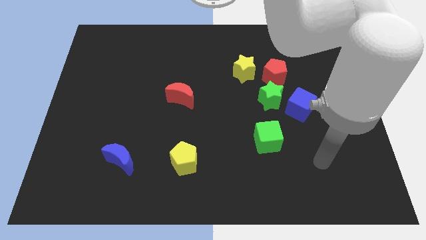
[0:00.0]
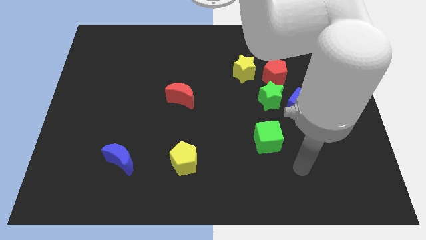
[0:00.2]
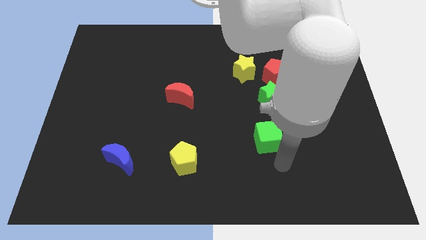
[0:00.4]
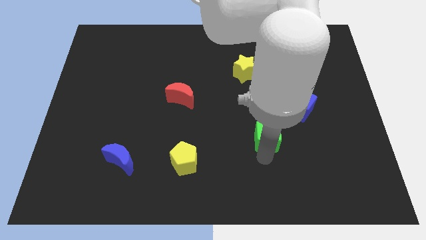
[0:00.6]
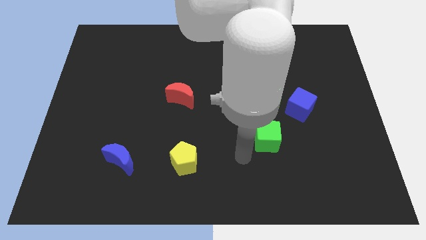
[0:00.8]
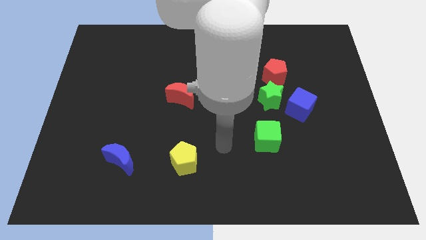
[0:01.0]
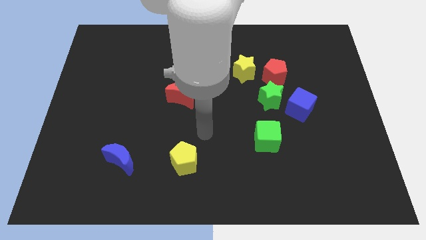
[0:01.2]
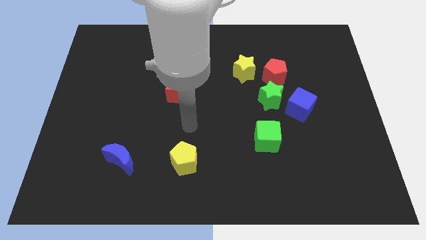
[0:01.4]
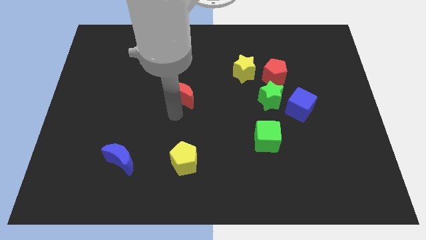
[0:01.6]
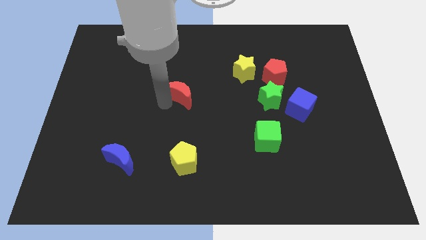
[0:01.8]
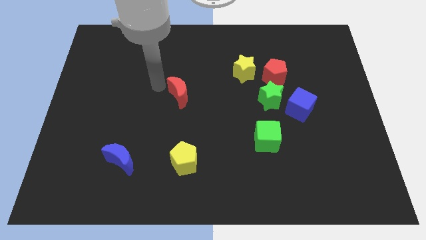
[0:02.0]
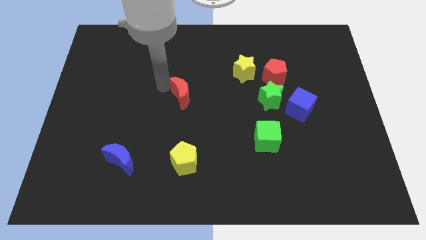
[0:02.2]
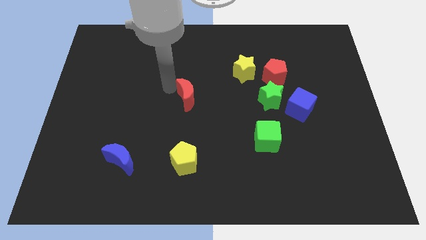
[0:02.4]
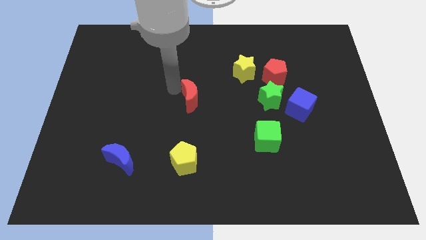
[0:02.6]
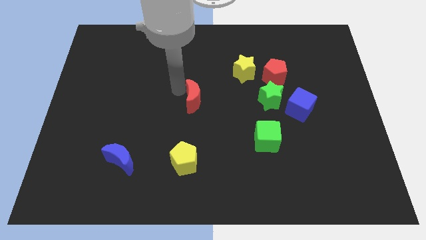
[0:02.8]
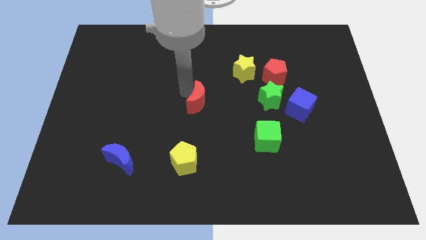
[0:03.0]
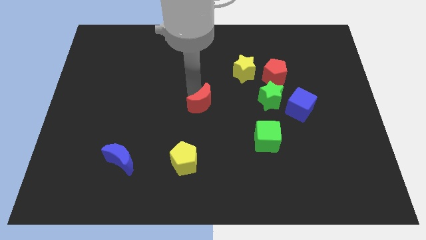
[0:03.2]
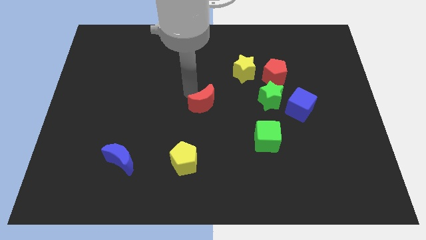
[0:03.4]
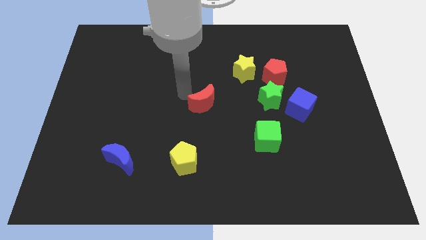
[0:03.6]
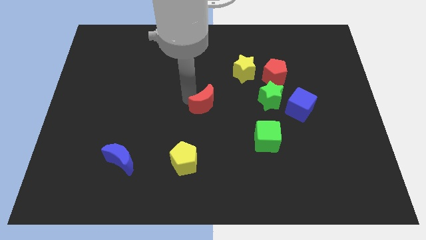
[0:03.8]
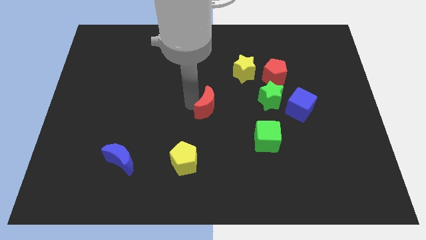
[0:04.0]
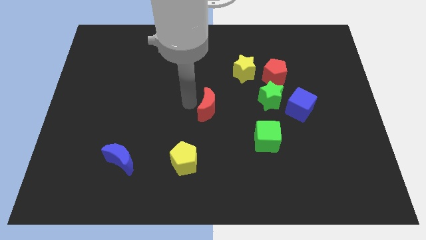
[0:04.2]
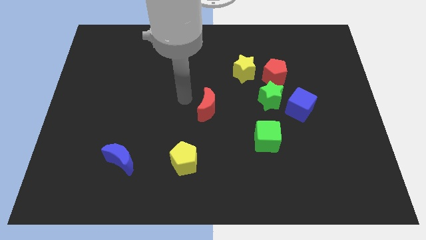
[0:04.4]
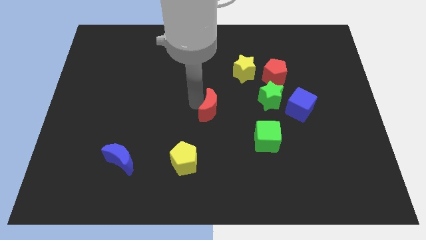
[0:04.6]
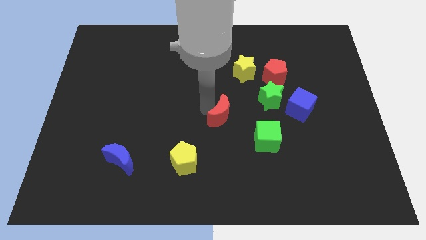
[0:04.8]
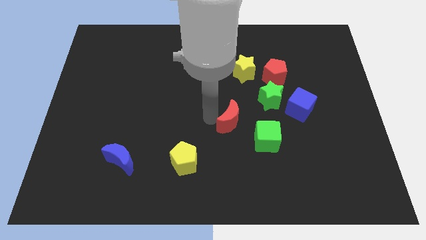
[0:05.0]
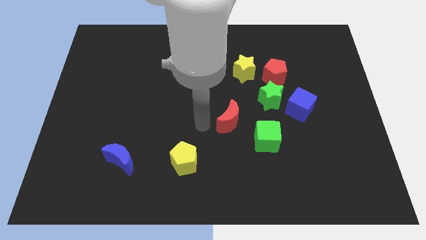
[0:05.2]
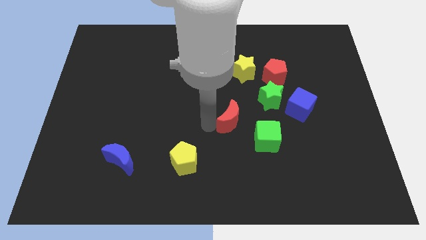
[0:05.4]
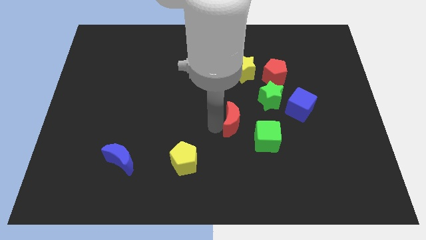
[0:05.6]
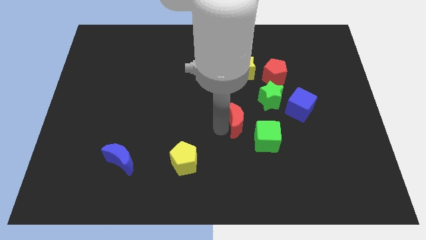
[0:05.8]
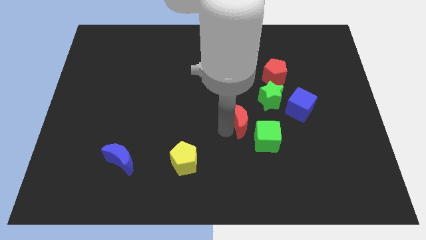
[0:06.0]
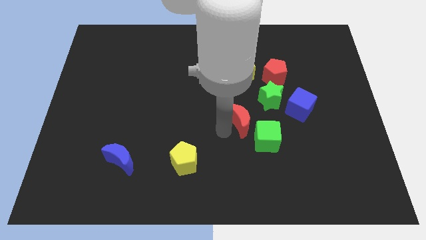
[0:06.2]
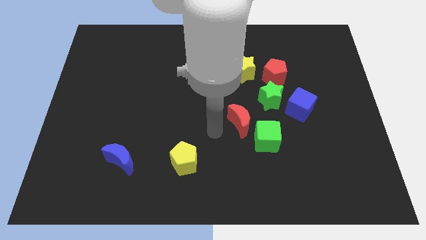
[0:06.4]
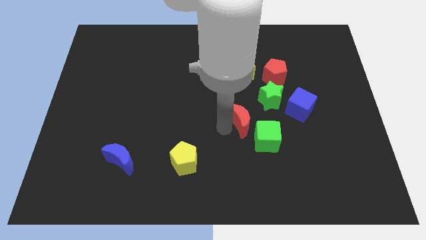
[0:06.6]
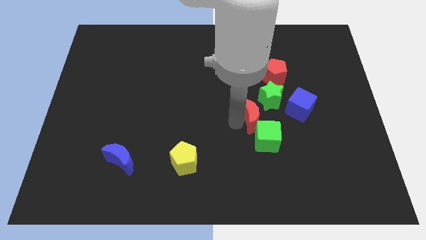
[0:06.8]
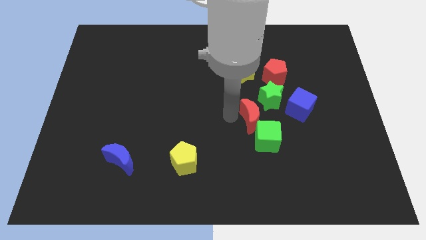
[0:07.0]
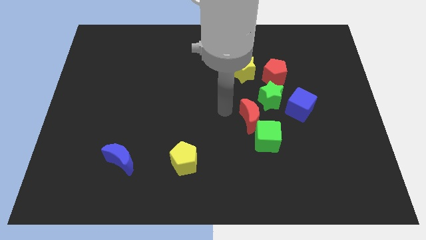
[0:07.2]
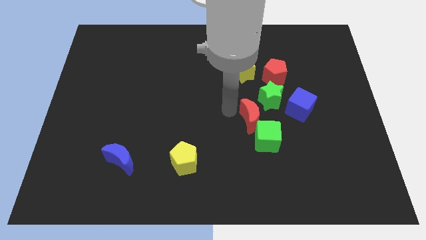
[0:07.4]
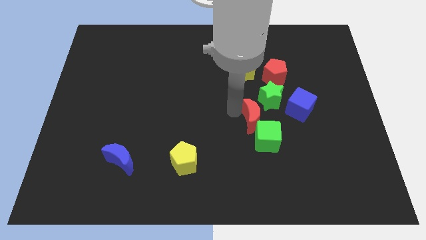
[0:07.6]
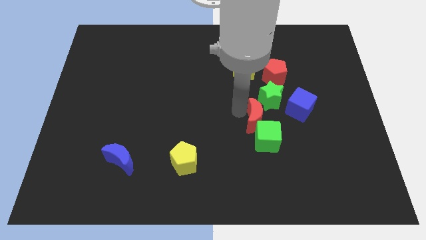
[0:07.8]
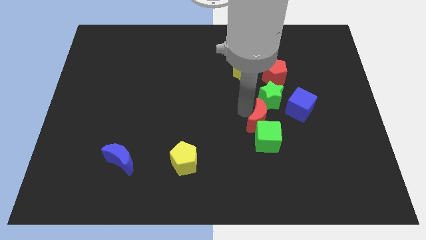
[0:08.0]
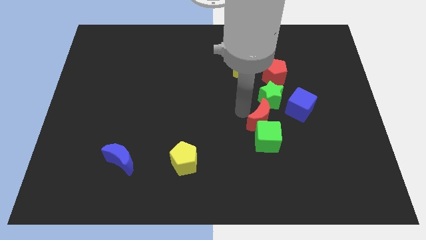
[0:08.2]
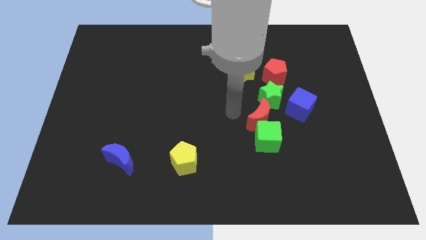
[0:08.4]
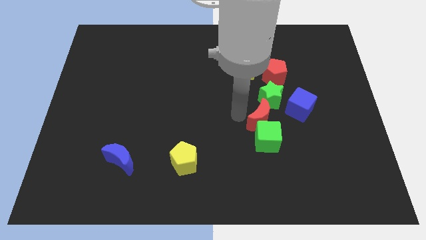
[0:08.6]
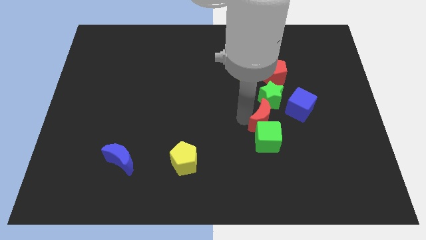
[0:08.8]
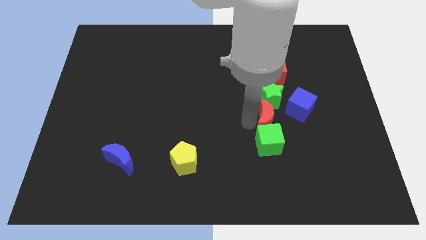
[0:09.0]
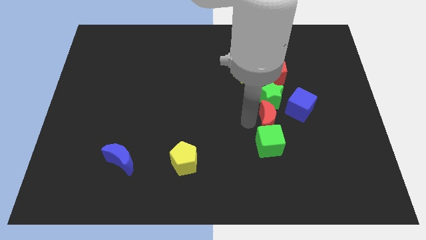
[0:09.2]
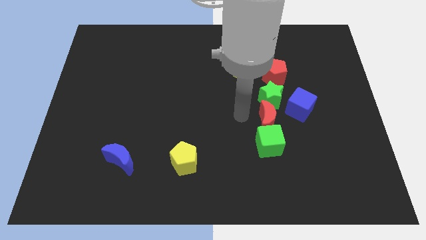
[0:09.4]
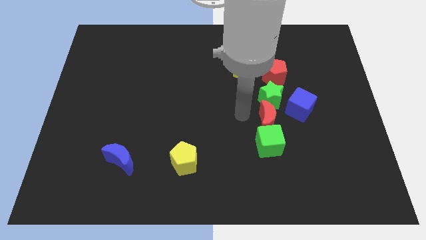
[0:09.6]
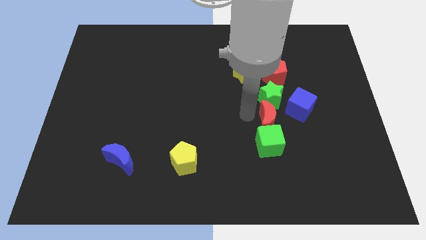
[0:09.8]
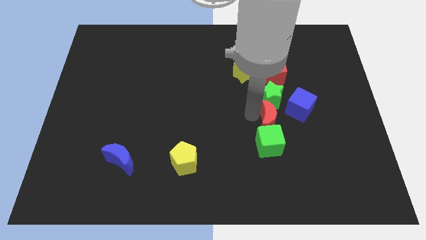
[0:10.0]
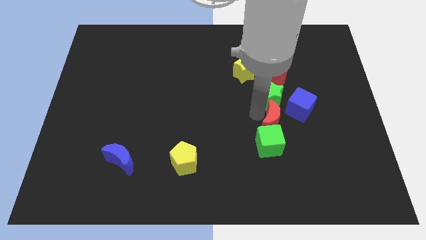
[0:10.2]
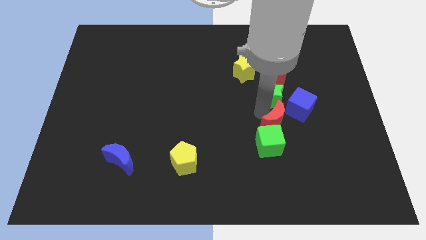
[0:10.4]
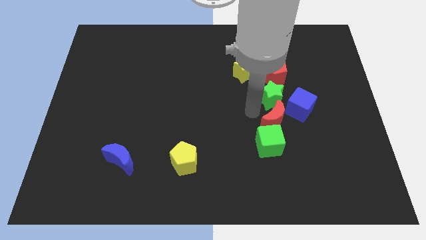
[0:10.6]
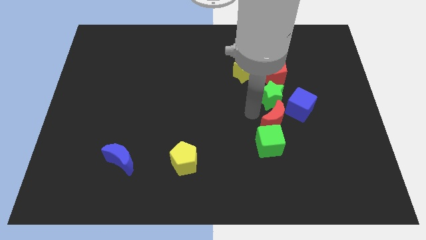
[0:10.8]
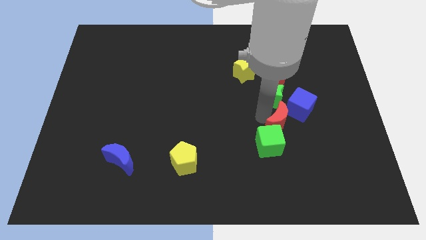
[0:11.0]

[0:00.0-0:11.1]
move the red moon to the right

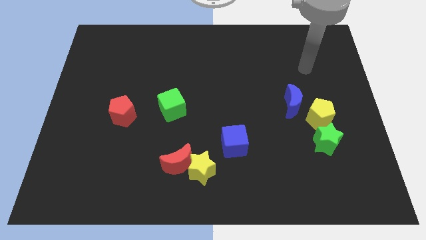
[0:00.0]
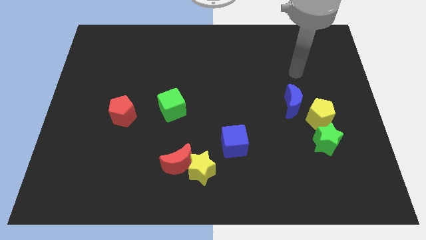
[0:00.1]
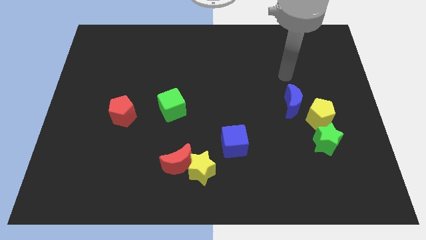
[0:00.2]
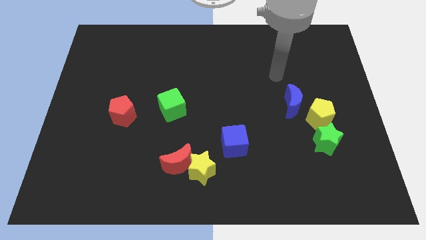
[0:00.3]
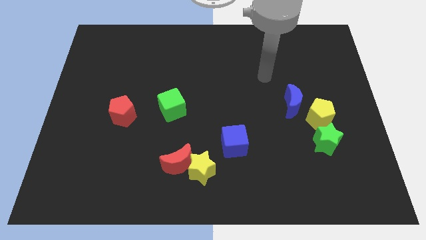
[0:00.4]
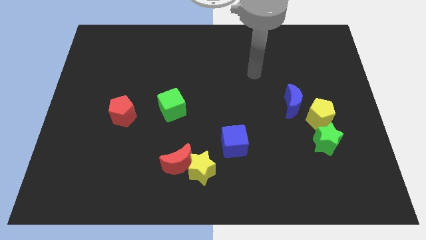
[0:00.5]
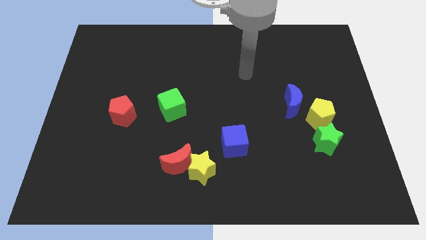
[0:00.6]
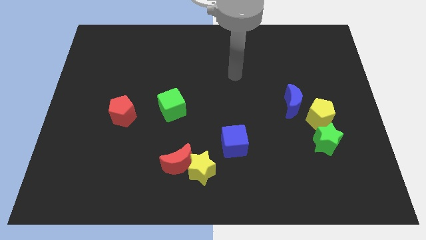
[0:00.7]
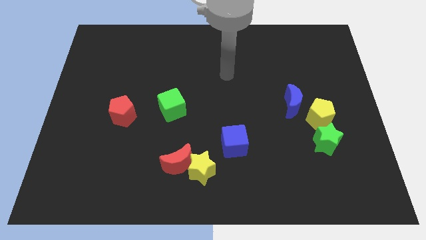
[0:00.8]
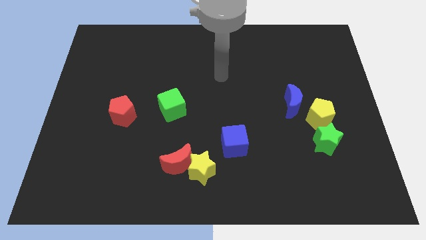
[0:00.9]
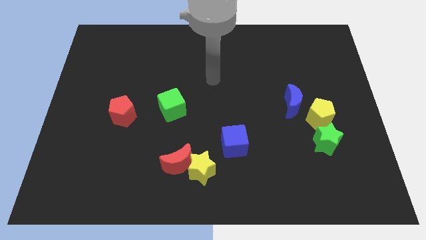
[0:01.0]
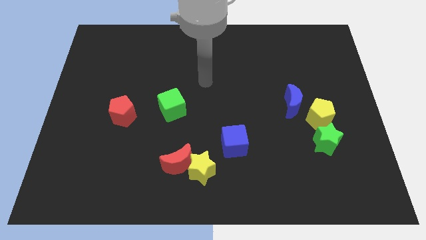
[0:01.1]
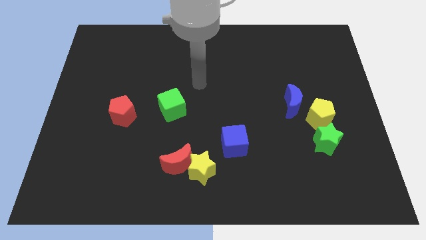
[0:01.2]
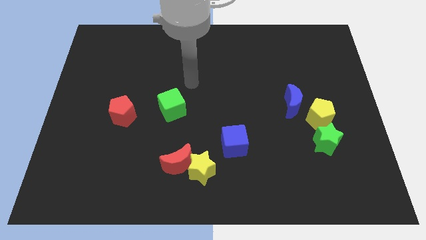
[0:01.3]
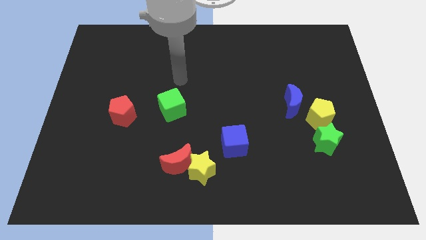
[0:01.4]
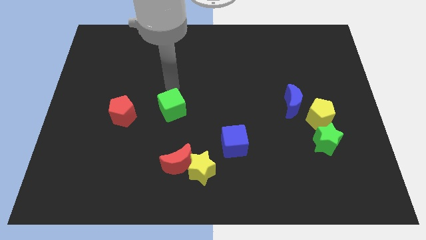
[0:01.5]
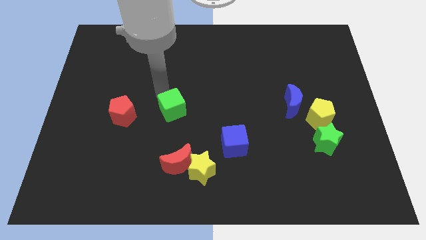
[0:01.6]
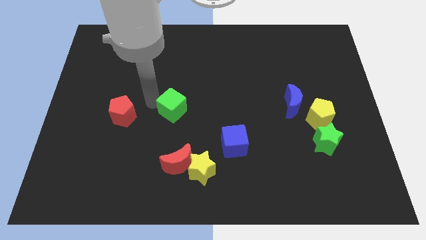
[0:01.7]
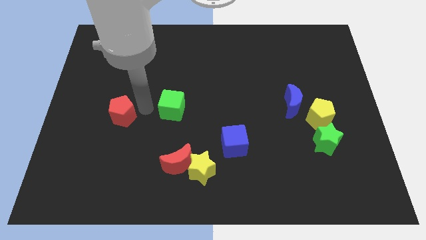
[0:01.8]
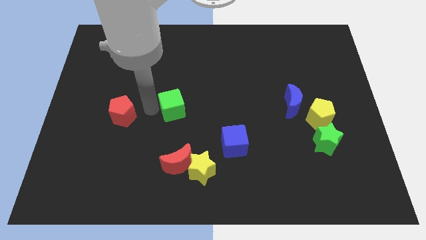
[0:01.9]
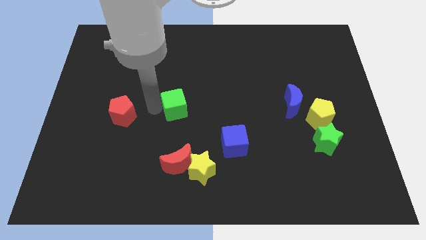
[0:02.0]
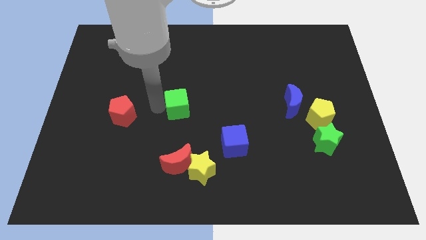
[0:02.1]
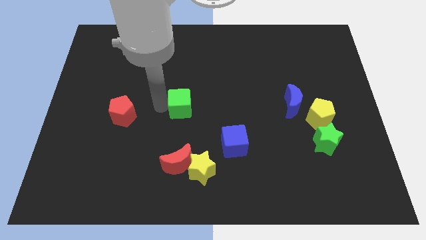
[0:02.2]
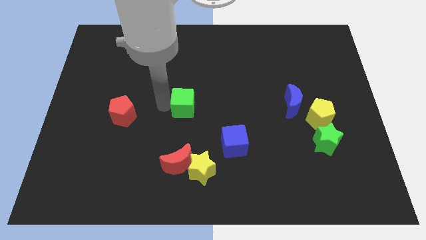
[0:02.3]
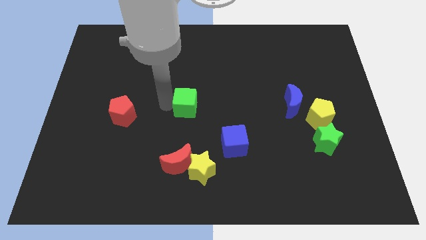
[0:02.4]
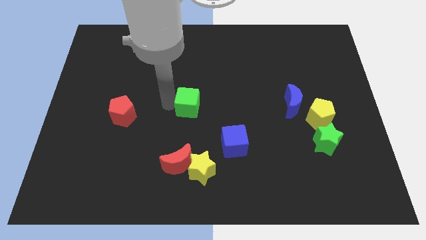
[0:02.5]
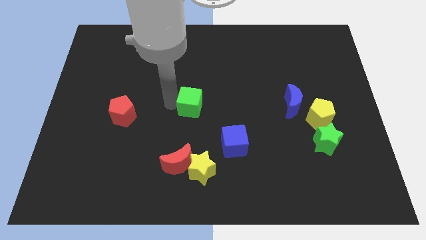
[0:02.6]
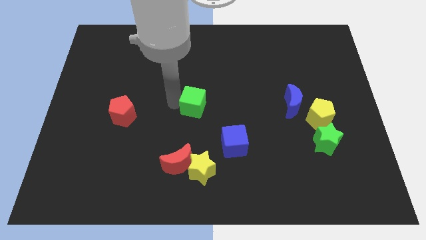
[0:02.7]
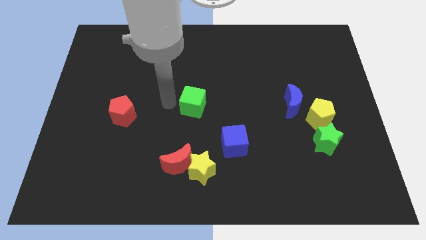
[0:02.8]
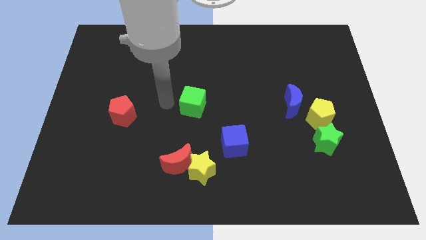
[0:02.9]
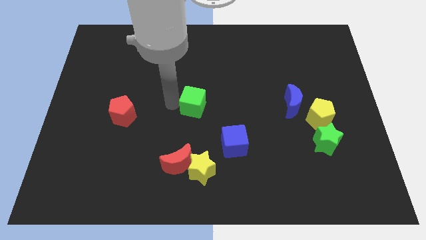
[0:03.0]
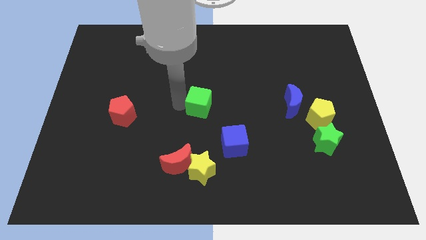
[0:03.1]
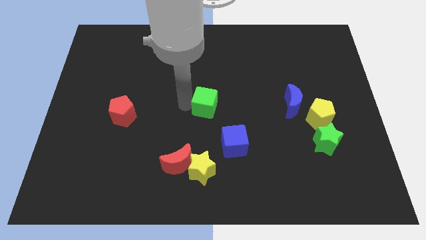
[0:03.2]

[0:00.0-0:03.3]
slide the green cube right a little
